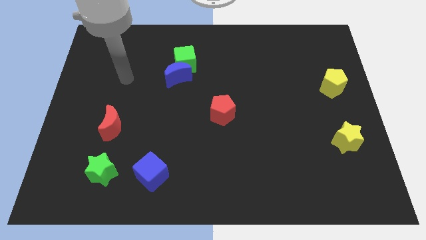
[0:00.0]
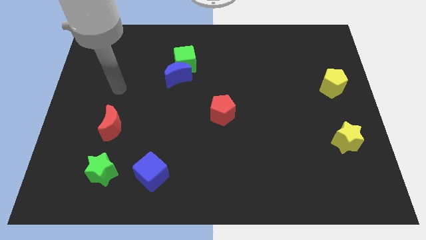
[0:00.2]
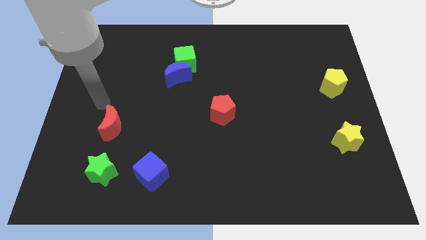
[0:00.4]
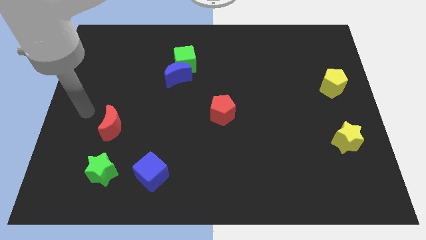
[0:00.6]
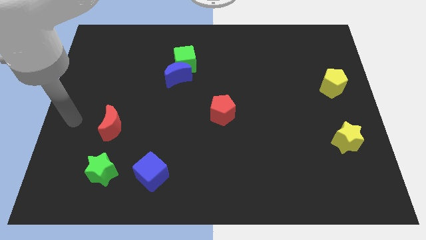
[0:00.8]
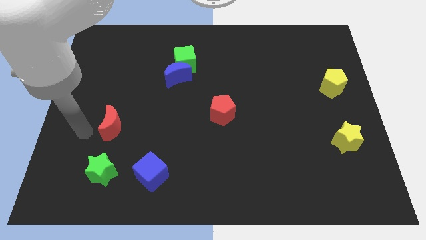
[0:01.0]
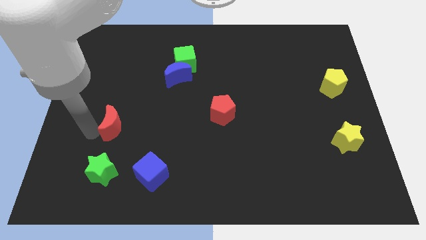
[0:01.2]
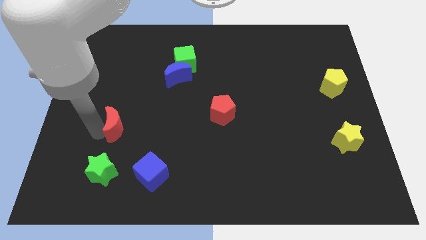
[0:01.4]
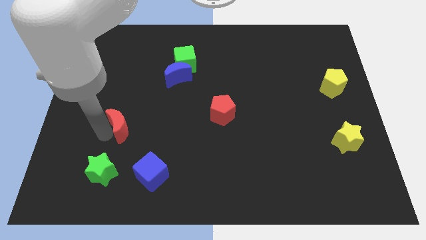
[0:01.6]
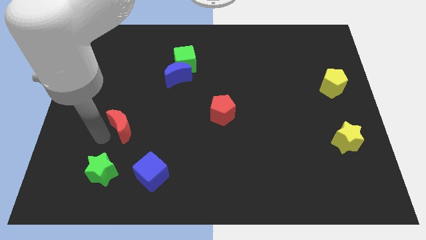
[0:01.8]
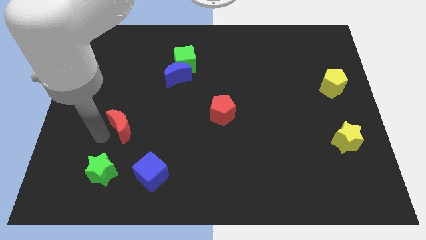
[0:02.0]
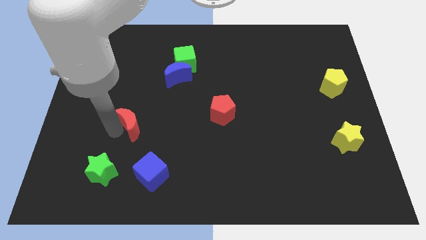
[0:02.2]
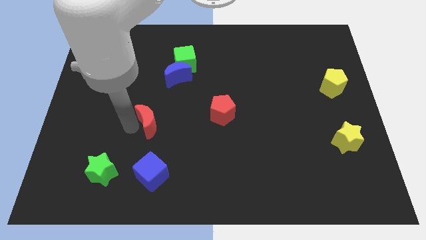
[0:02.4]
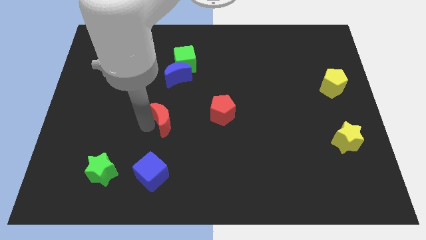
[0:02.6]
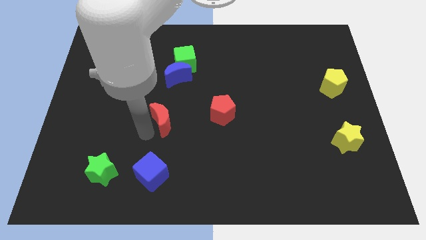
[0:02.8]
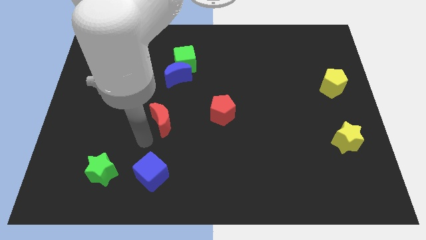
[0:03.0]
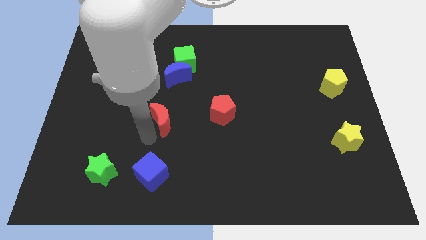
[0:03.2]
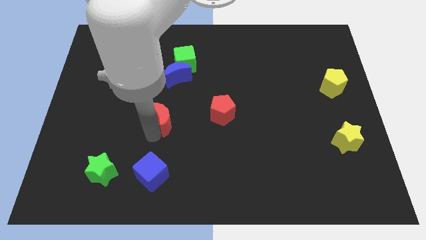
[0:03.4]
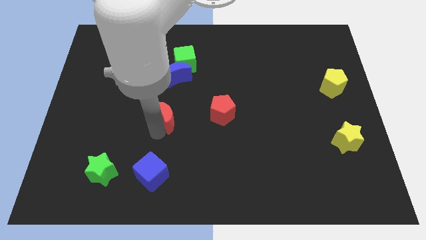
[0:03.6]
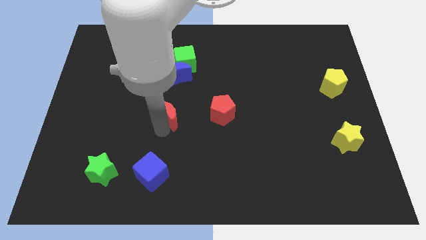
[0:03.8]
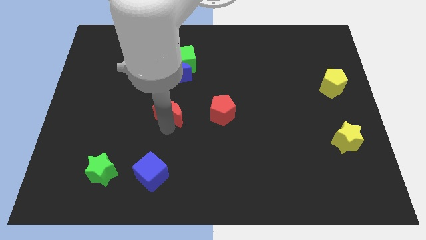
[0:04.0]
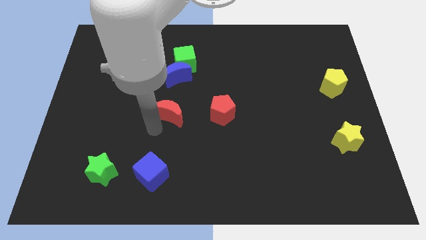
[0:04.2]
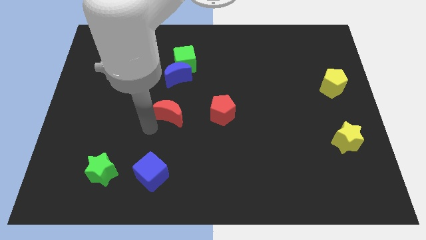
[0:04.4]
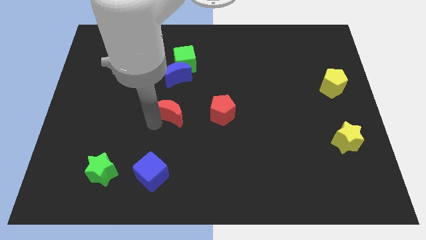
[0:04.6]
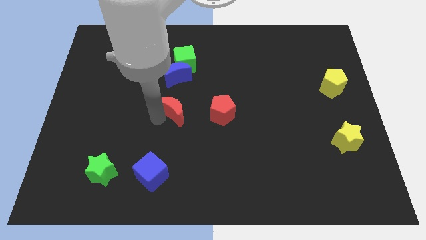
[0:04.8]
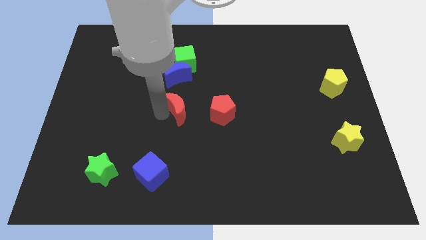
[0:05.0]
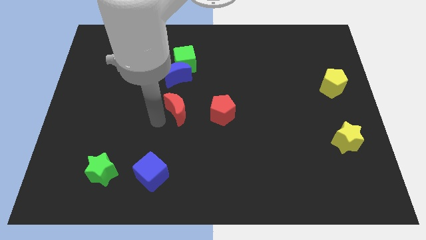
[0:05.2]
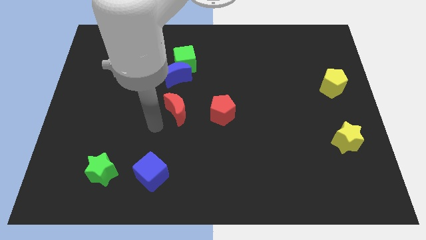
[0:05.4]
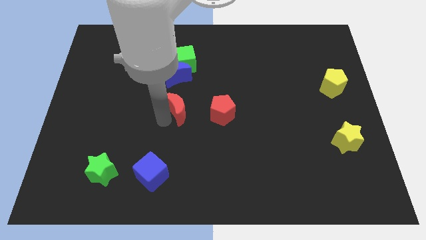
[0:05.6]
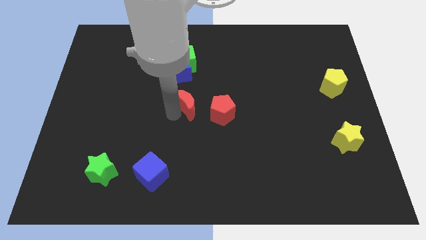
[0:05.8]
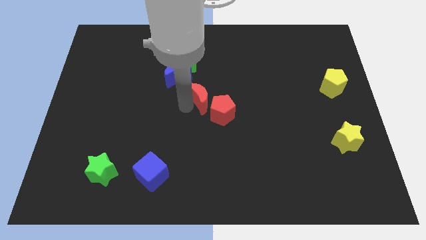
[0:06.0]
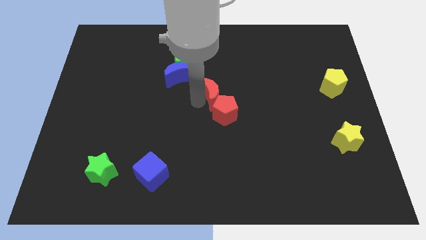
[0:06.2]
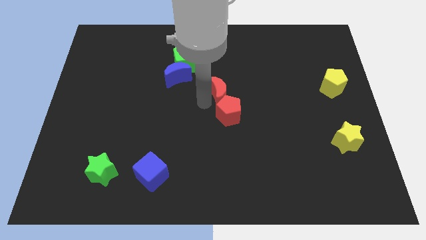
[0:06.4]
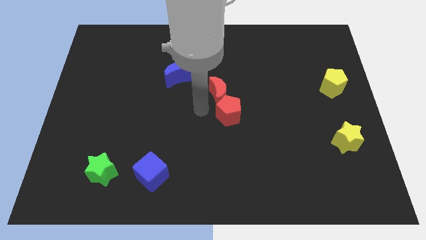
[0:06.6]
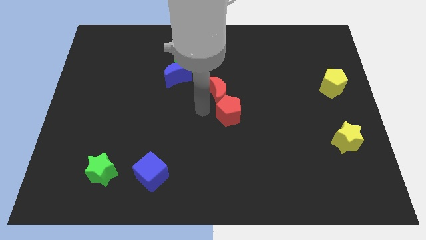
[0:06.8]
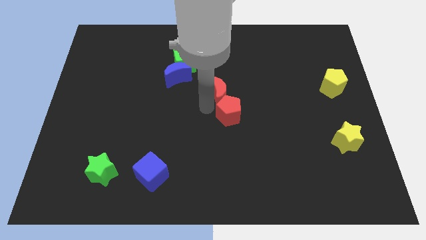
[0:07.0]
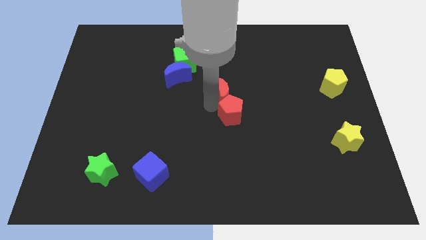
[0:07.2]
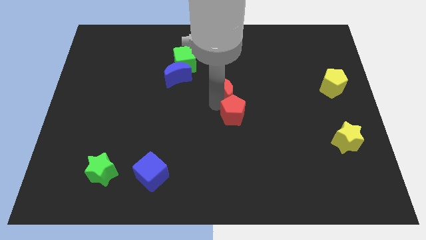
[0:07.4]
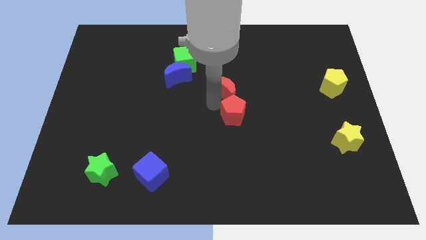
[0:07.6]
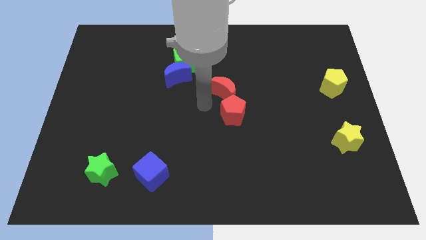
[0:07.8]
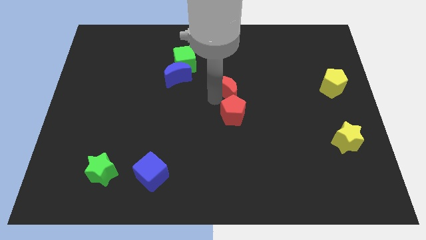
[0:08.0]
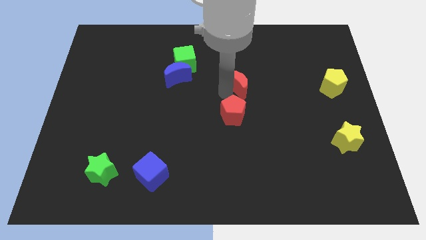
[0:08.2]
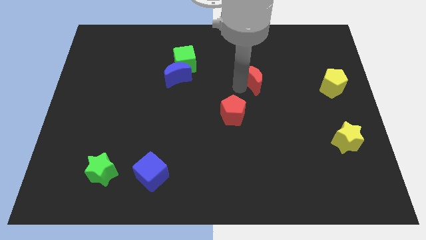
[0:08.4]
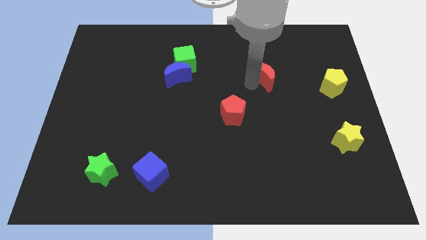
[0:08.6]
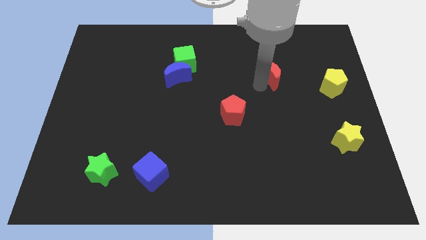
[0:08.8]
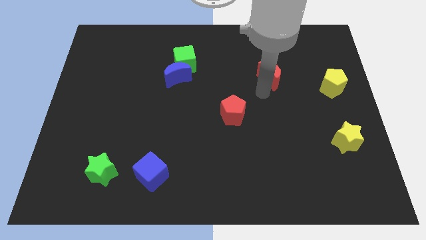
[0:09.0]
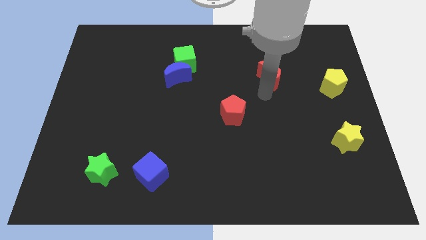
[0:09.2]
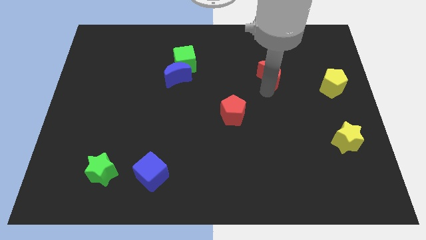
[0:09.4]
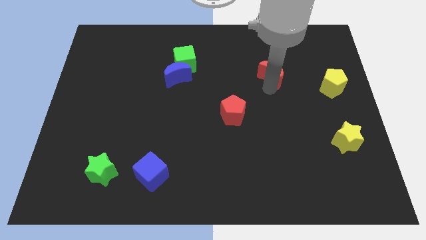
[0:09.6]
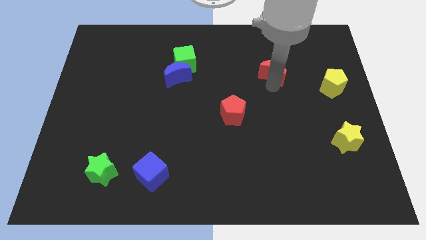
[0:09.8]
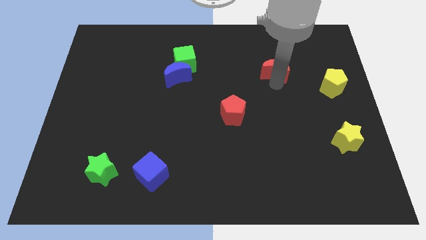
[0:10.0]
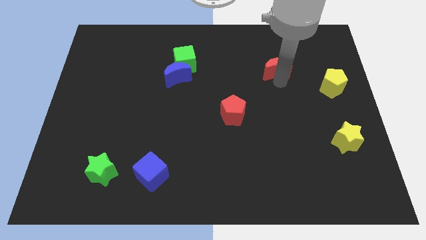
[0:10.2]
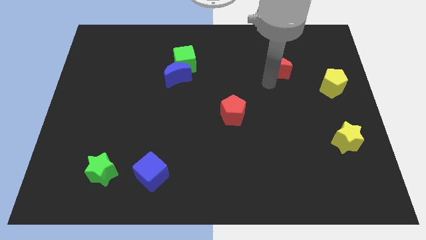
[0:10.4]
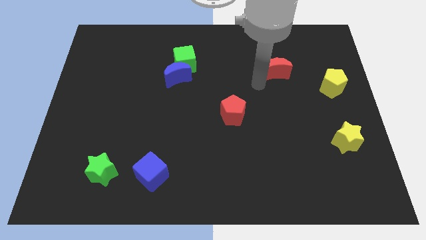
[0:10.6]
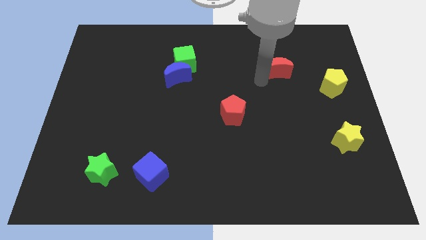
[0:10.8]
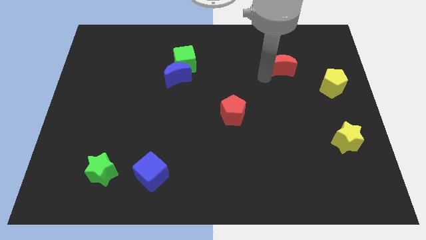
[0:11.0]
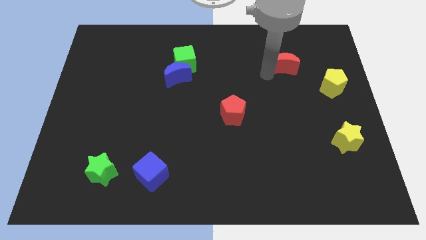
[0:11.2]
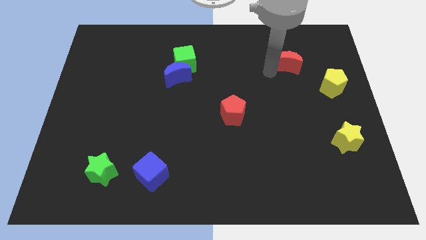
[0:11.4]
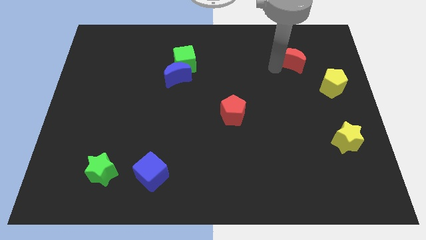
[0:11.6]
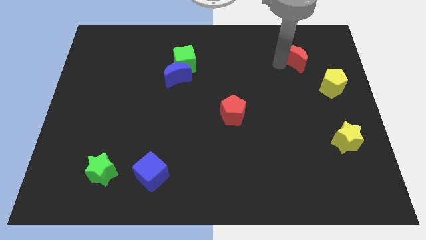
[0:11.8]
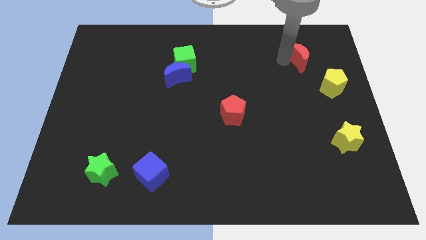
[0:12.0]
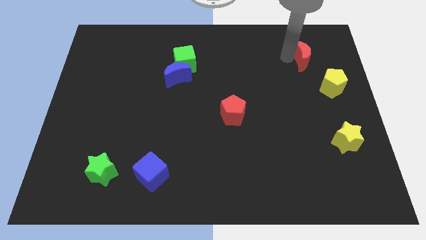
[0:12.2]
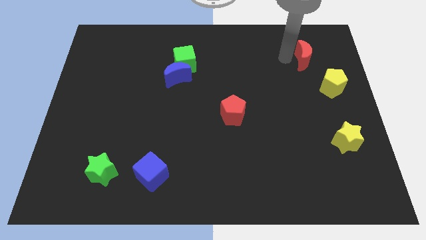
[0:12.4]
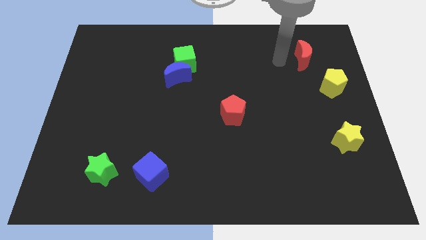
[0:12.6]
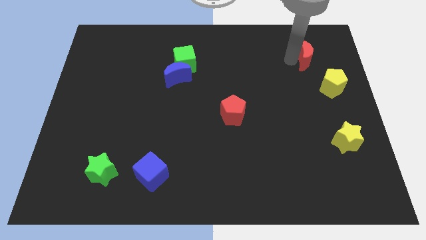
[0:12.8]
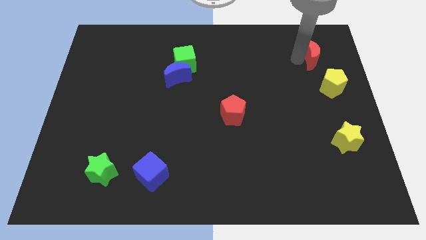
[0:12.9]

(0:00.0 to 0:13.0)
slide the red moon to the top side of the yellow pentagon

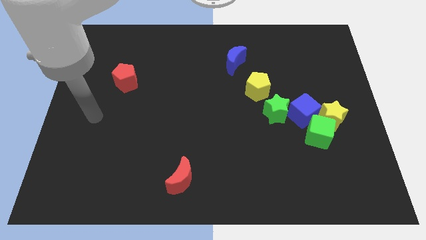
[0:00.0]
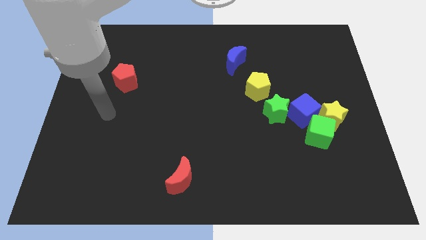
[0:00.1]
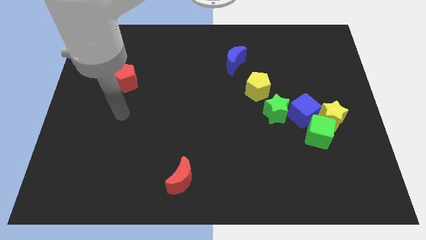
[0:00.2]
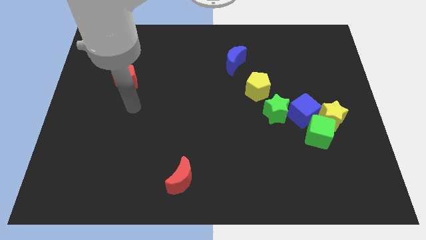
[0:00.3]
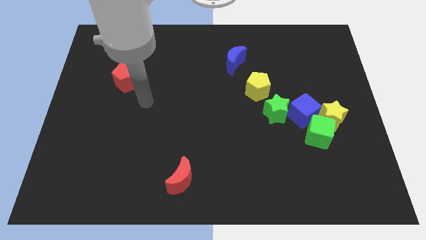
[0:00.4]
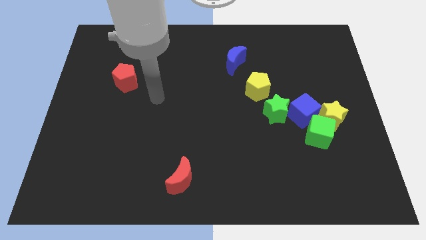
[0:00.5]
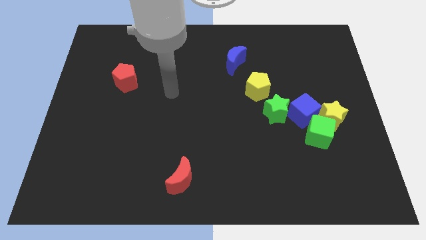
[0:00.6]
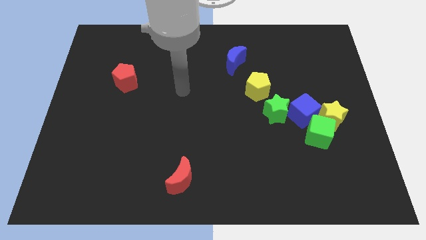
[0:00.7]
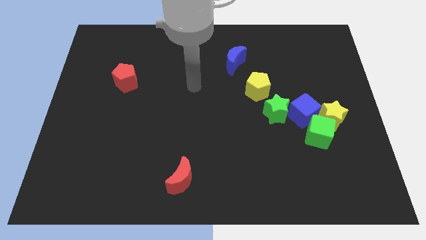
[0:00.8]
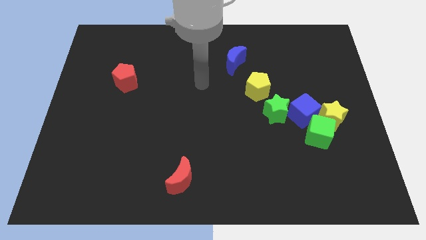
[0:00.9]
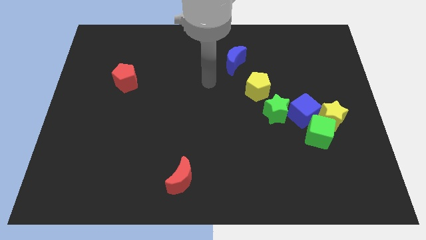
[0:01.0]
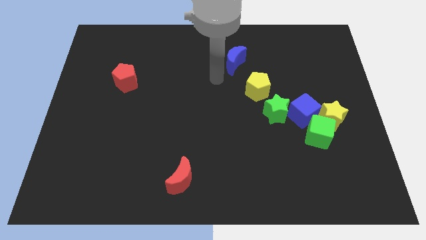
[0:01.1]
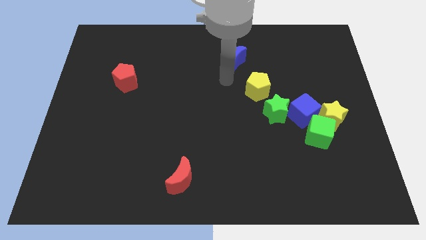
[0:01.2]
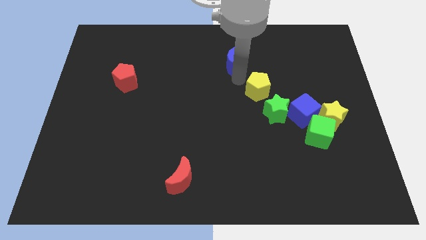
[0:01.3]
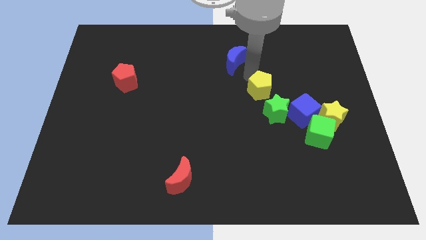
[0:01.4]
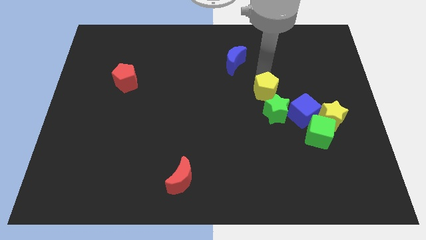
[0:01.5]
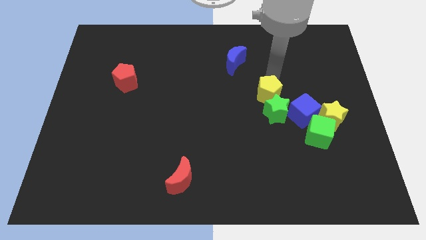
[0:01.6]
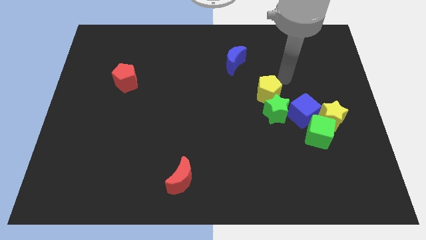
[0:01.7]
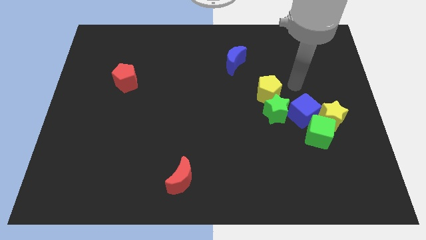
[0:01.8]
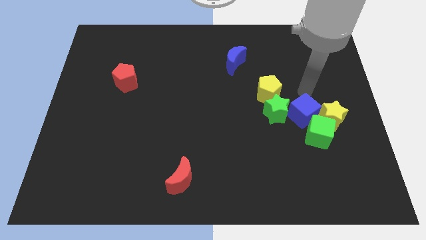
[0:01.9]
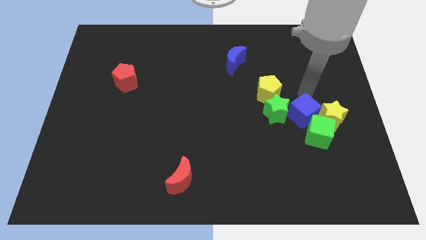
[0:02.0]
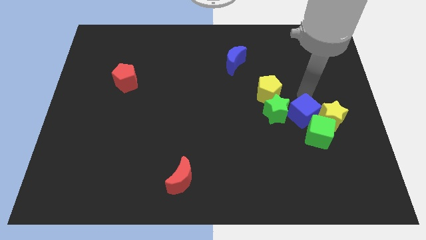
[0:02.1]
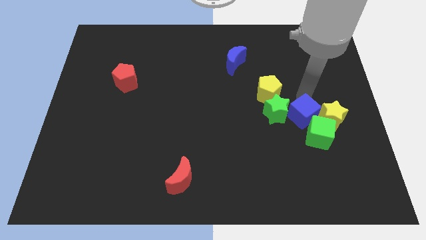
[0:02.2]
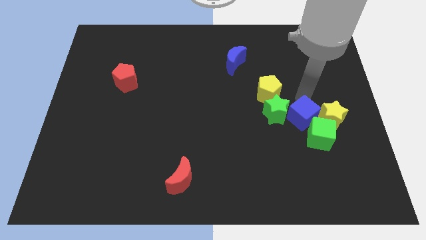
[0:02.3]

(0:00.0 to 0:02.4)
slide the blue cube diagonally down and to the left of the yellow star
